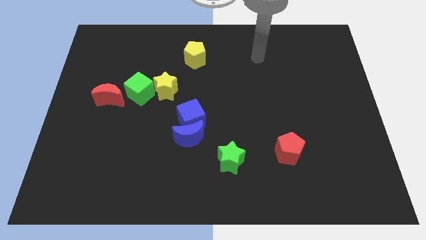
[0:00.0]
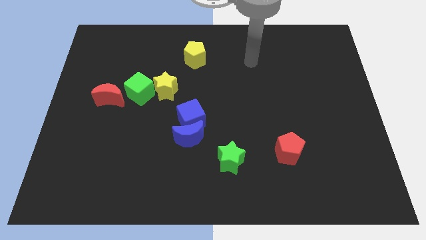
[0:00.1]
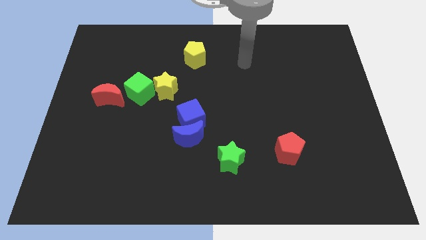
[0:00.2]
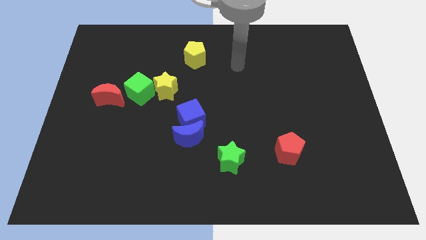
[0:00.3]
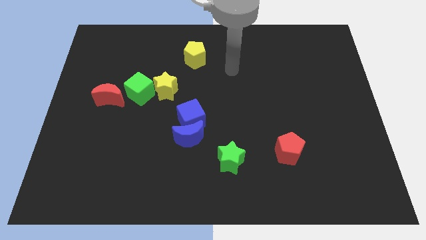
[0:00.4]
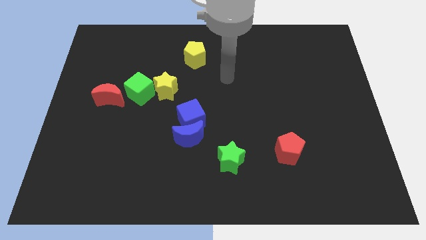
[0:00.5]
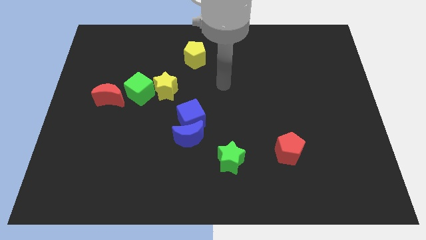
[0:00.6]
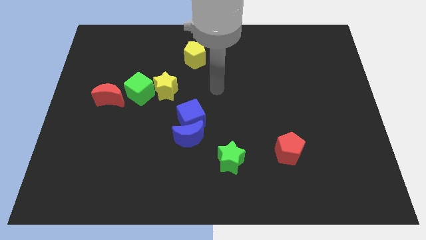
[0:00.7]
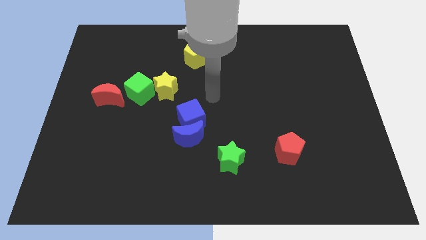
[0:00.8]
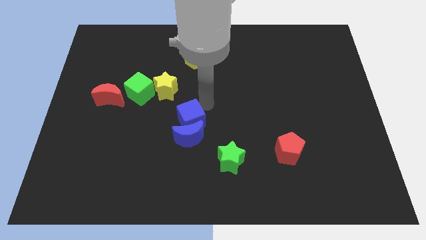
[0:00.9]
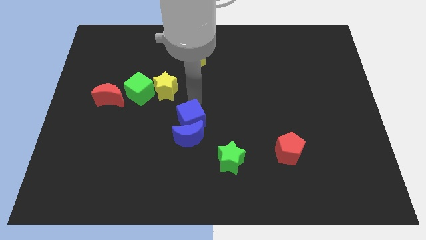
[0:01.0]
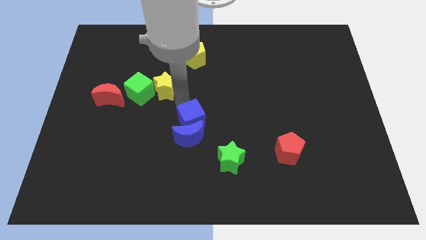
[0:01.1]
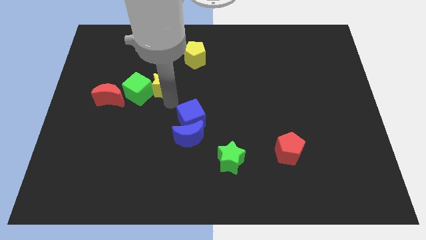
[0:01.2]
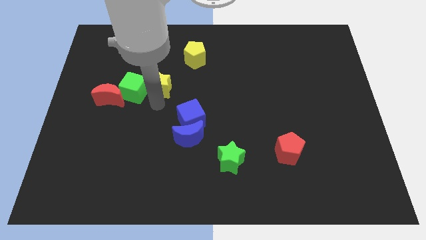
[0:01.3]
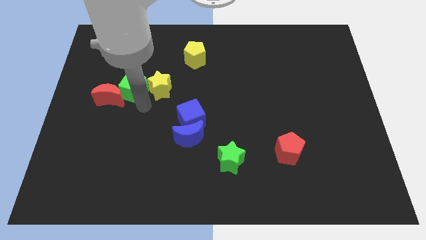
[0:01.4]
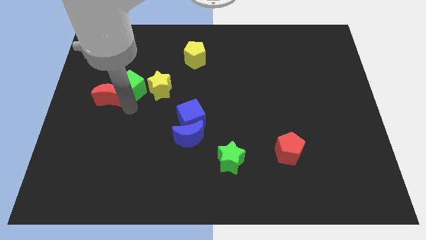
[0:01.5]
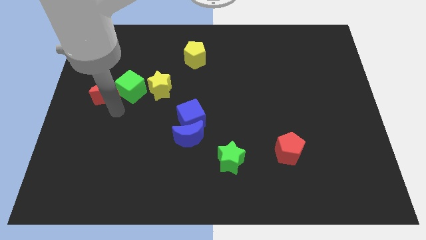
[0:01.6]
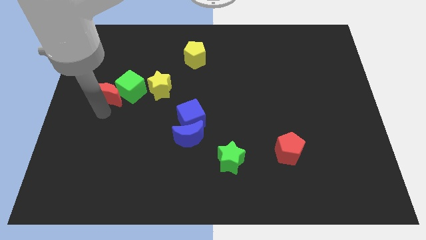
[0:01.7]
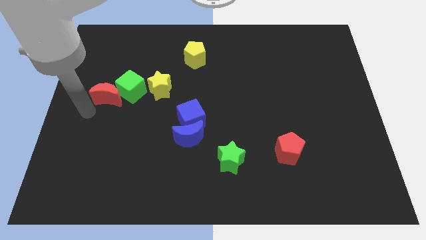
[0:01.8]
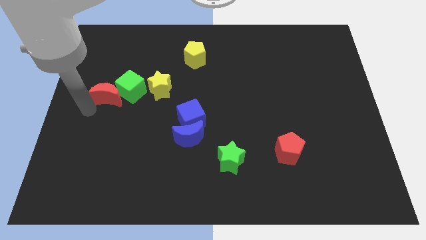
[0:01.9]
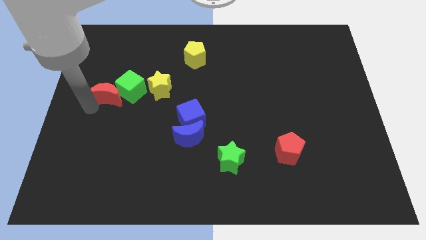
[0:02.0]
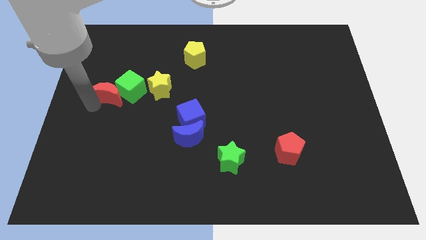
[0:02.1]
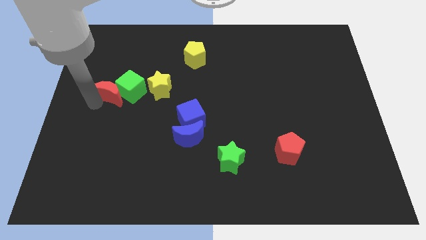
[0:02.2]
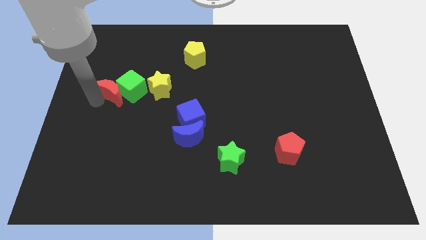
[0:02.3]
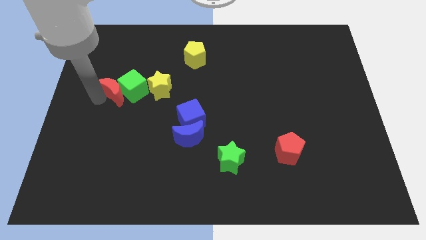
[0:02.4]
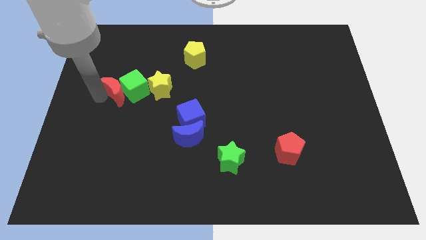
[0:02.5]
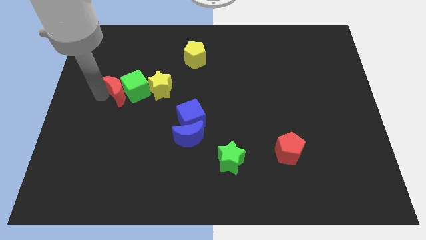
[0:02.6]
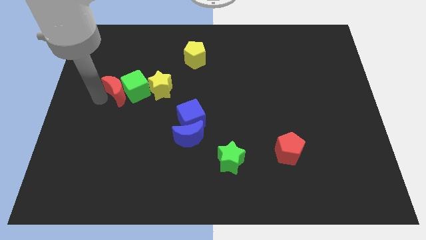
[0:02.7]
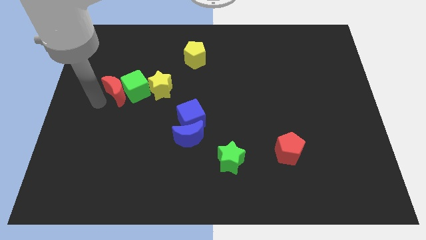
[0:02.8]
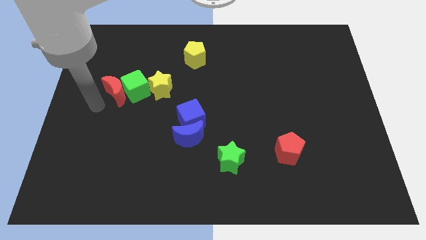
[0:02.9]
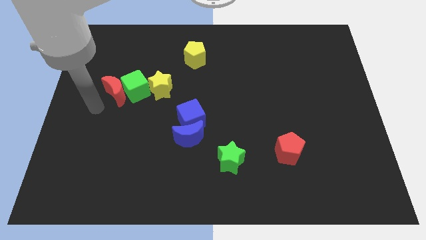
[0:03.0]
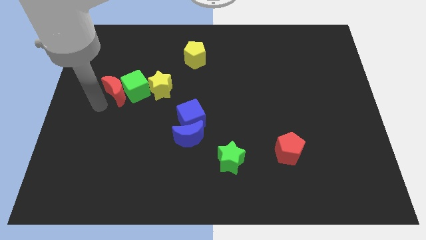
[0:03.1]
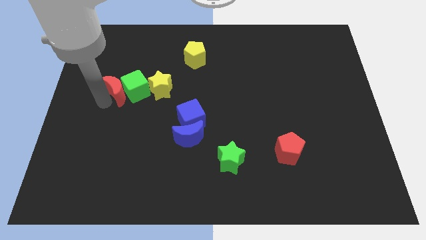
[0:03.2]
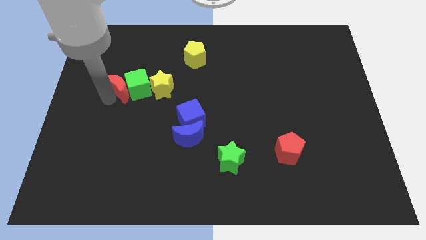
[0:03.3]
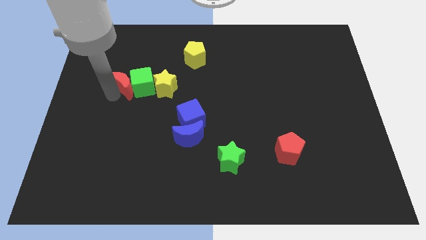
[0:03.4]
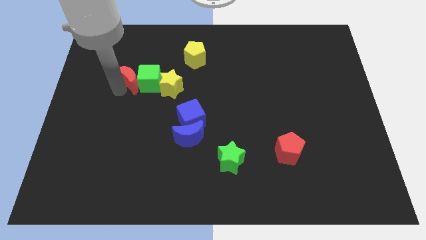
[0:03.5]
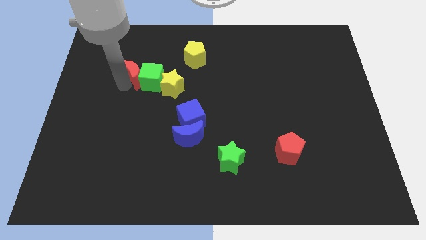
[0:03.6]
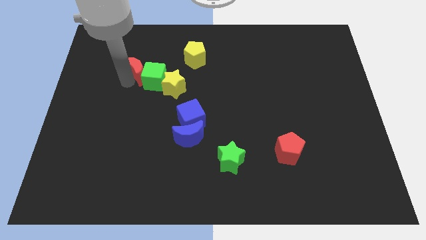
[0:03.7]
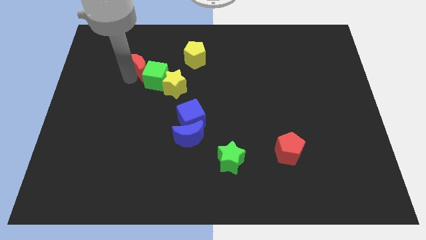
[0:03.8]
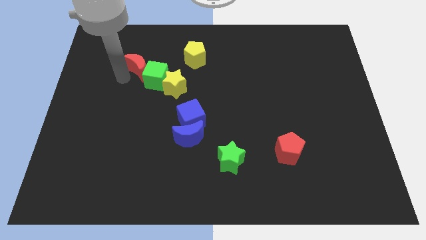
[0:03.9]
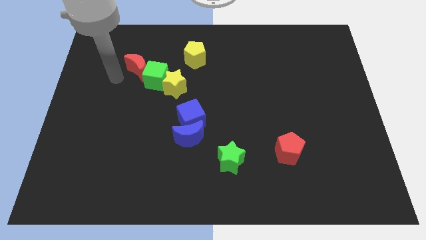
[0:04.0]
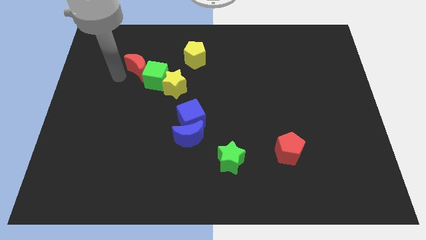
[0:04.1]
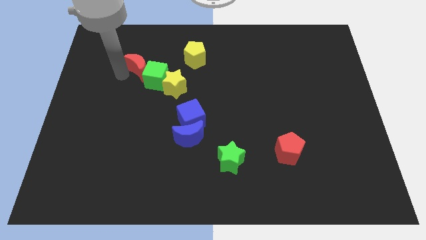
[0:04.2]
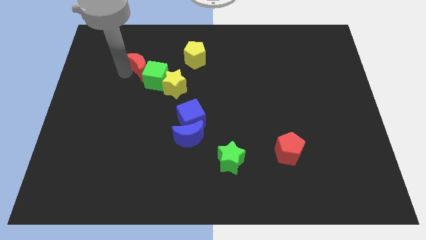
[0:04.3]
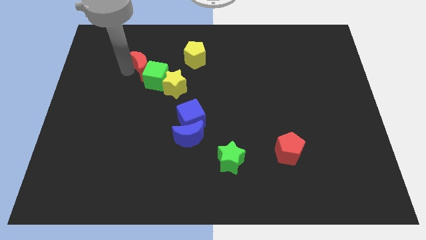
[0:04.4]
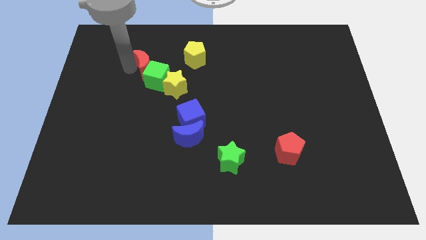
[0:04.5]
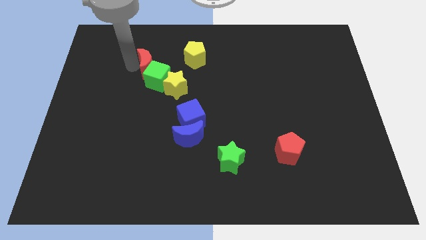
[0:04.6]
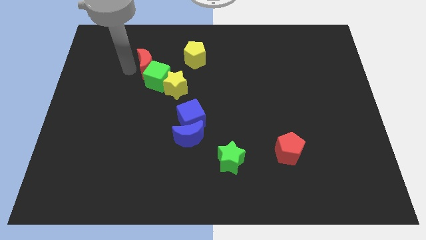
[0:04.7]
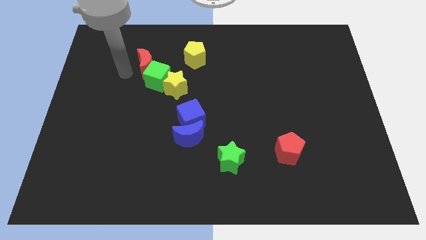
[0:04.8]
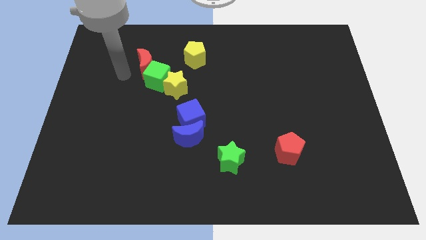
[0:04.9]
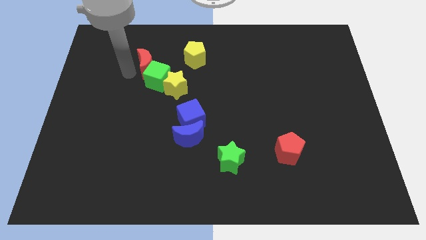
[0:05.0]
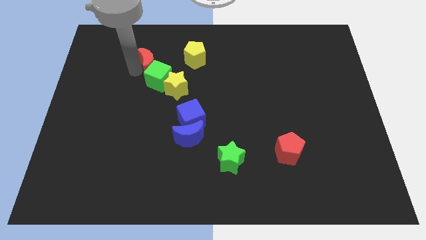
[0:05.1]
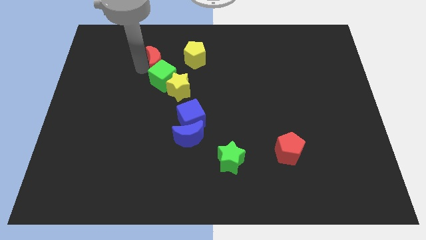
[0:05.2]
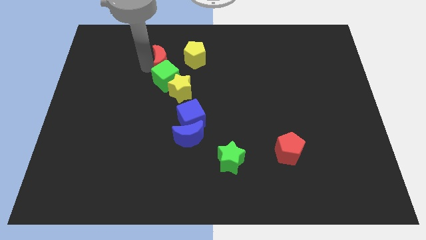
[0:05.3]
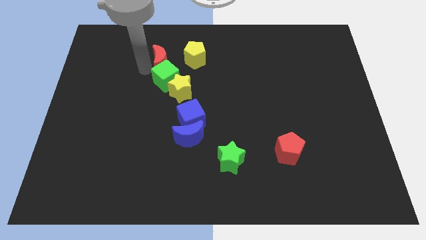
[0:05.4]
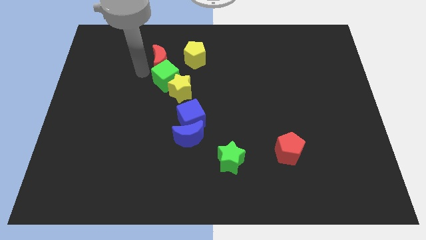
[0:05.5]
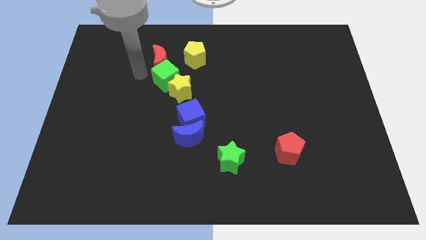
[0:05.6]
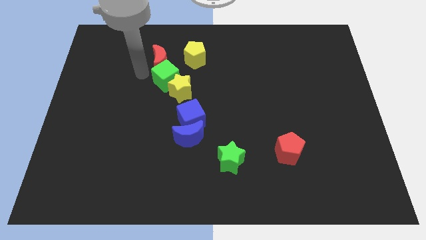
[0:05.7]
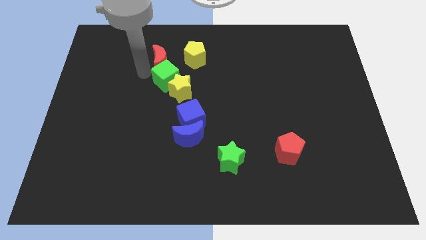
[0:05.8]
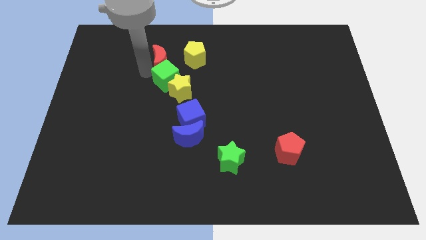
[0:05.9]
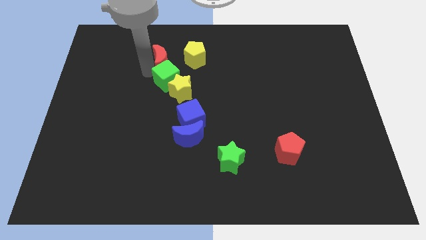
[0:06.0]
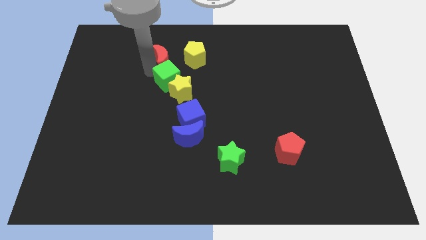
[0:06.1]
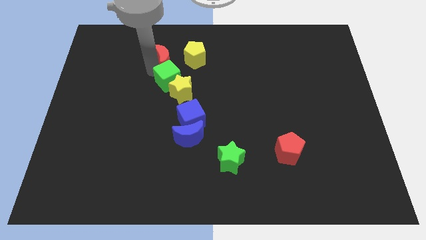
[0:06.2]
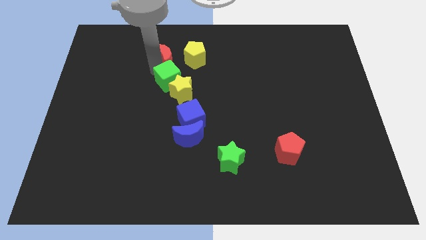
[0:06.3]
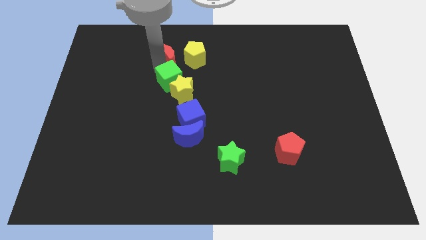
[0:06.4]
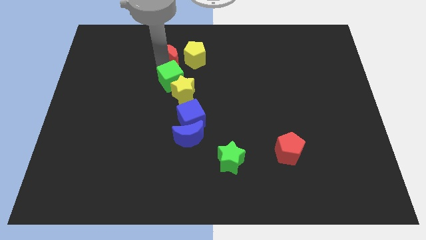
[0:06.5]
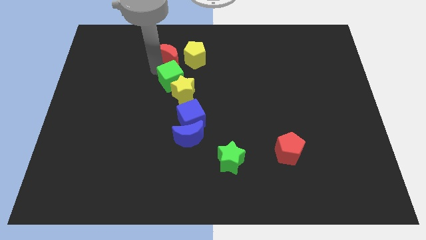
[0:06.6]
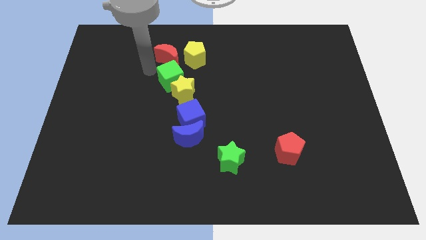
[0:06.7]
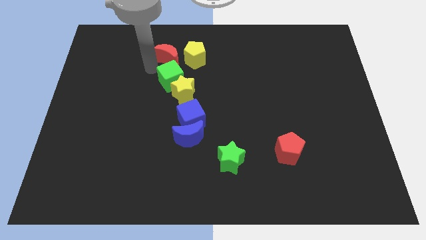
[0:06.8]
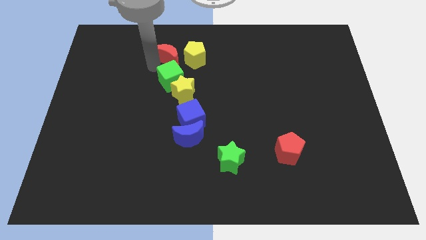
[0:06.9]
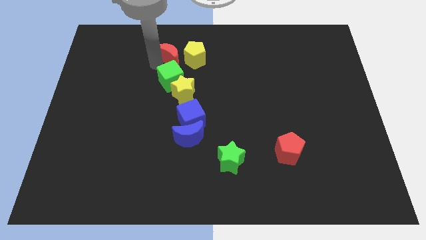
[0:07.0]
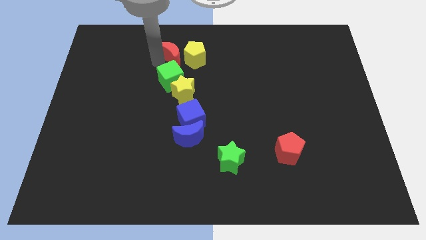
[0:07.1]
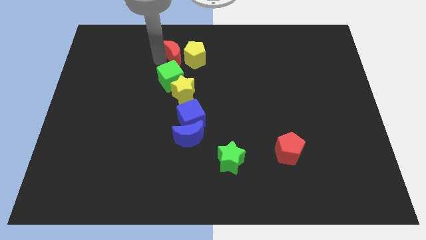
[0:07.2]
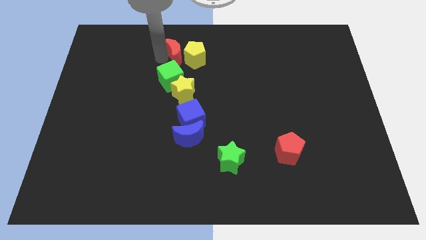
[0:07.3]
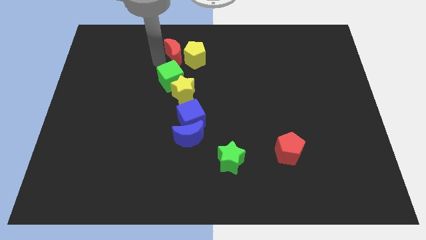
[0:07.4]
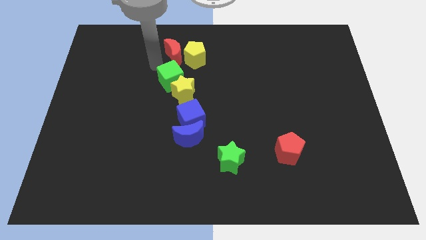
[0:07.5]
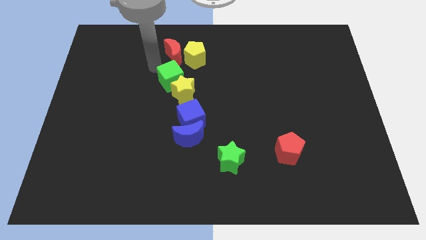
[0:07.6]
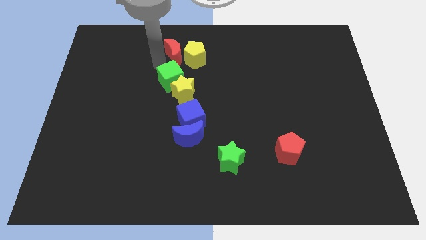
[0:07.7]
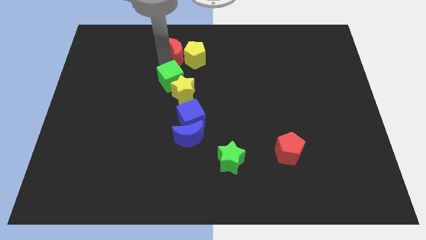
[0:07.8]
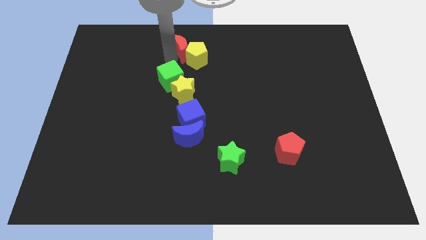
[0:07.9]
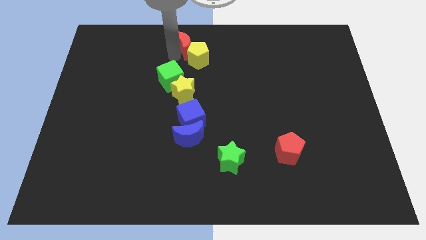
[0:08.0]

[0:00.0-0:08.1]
push the red moon to the top
